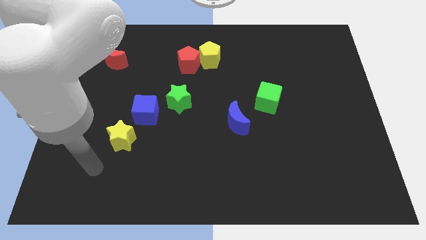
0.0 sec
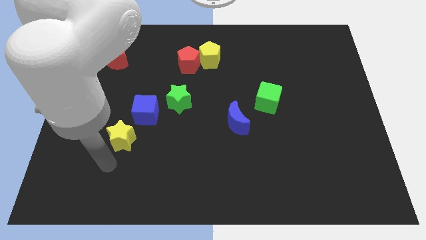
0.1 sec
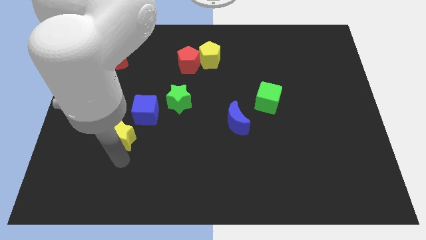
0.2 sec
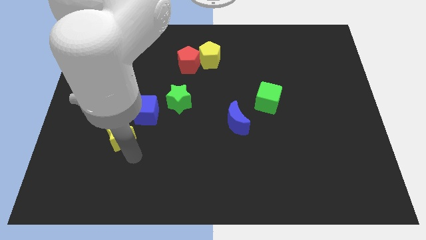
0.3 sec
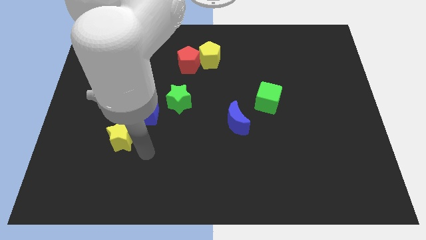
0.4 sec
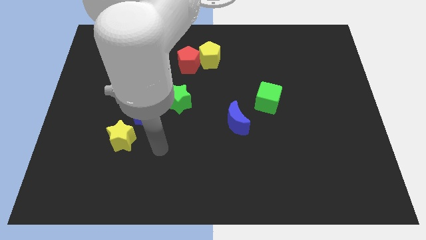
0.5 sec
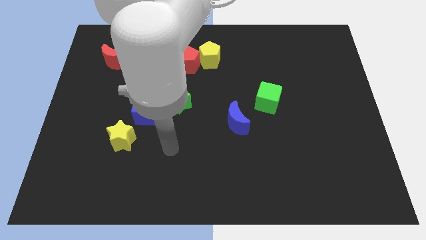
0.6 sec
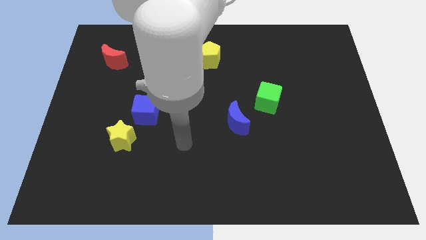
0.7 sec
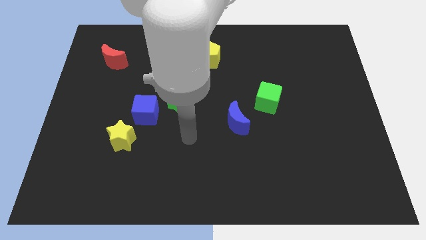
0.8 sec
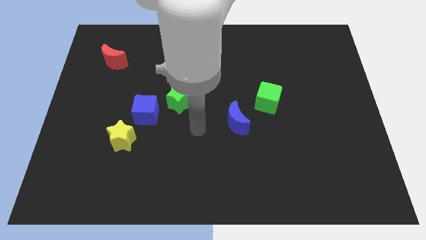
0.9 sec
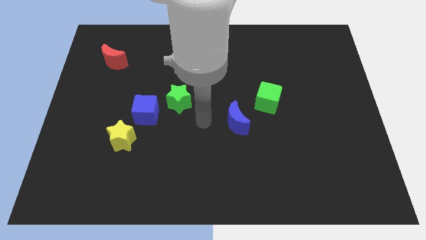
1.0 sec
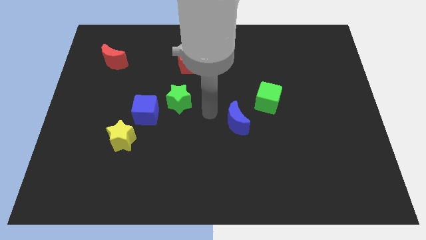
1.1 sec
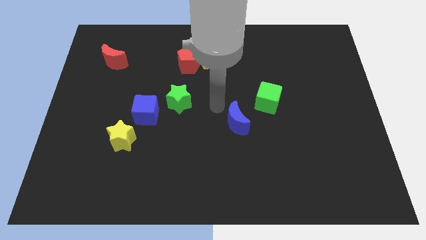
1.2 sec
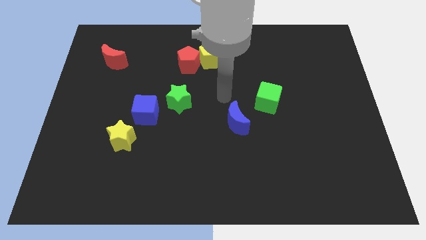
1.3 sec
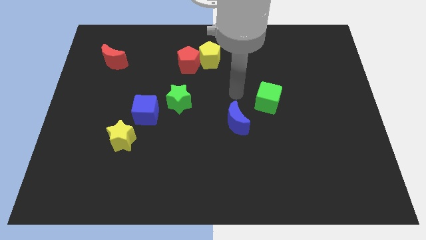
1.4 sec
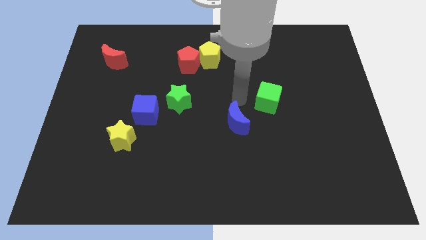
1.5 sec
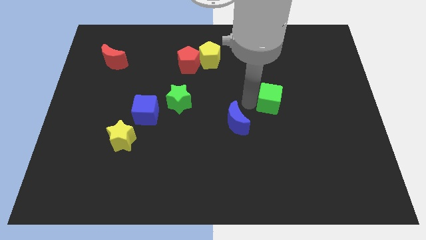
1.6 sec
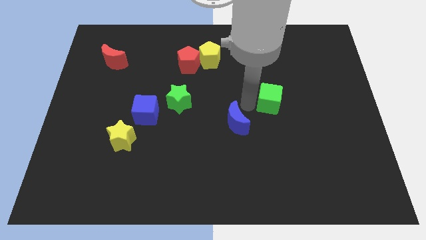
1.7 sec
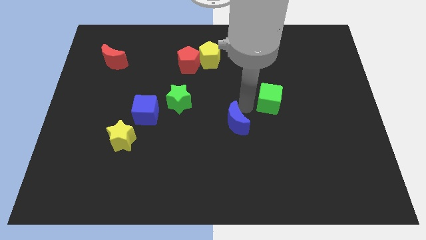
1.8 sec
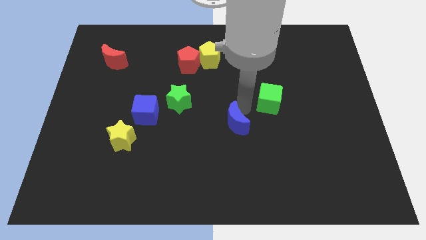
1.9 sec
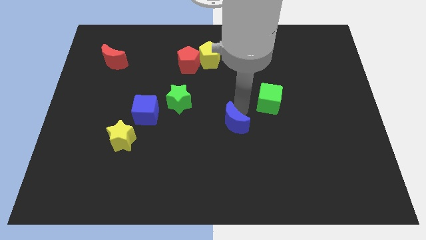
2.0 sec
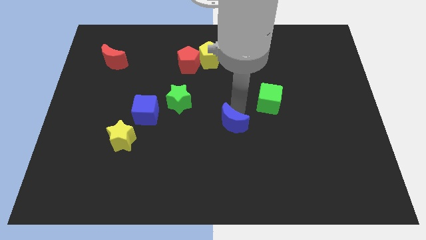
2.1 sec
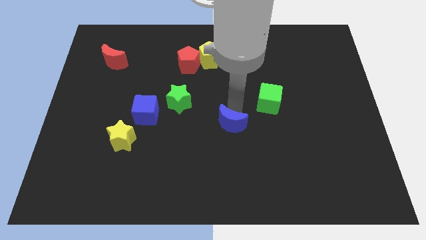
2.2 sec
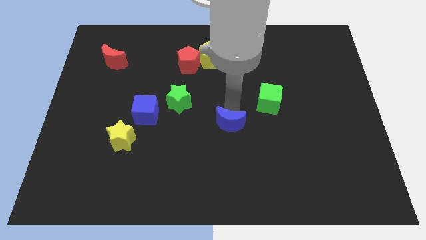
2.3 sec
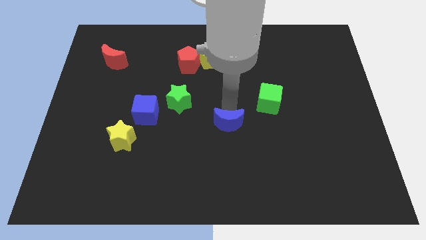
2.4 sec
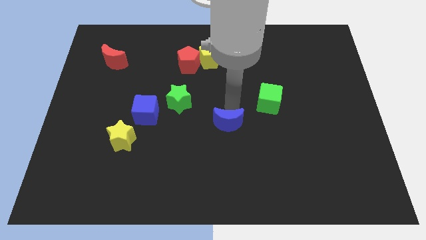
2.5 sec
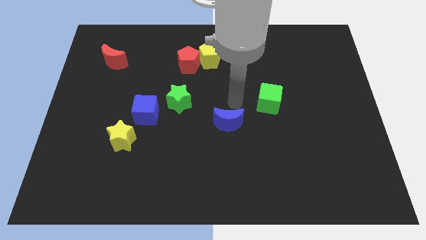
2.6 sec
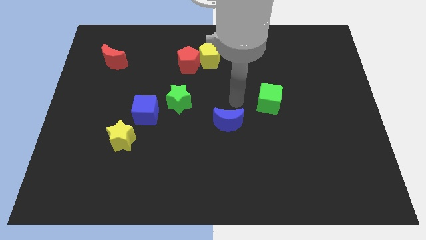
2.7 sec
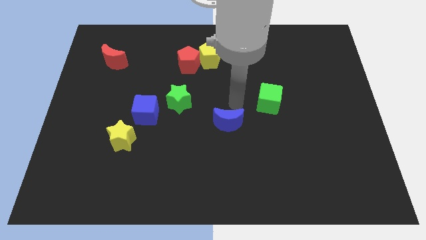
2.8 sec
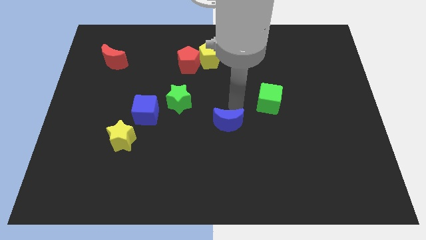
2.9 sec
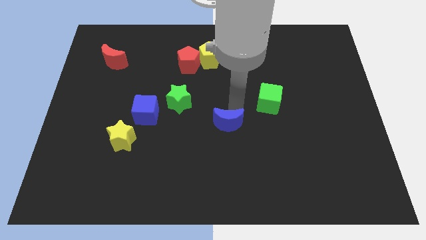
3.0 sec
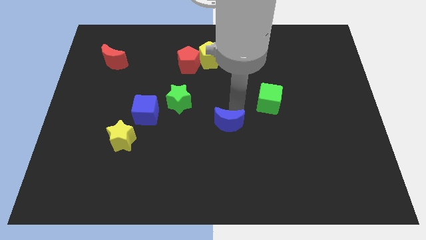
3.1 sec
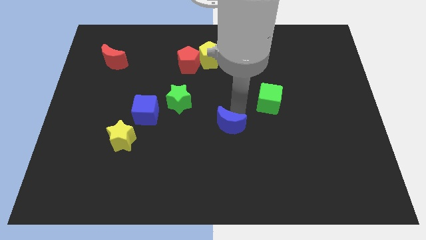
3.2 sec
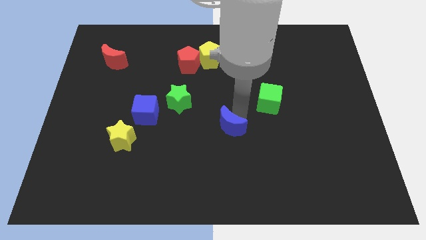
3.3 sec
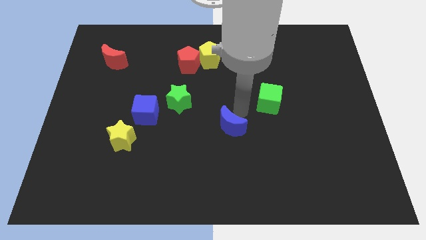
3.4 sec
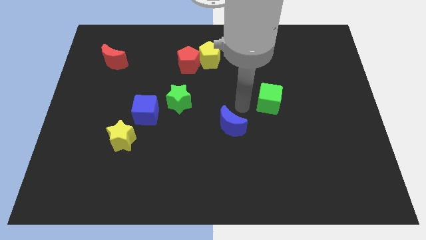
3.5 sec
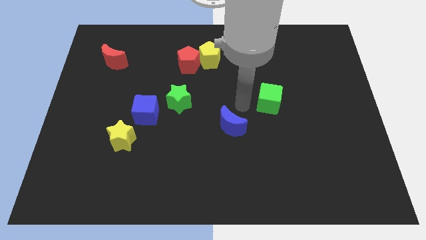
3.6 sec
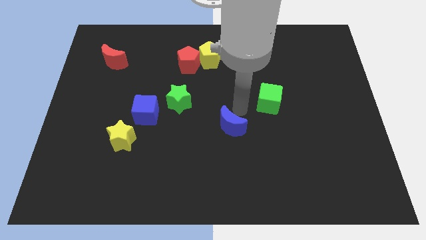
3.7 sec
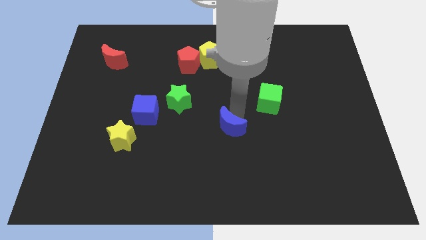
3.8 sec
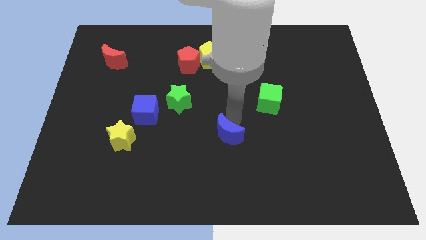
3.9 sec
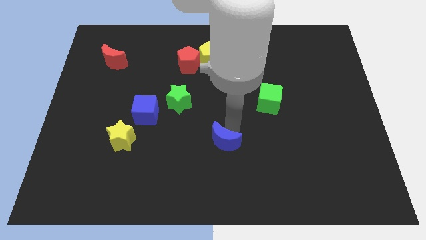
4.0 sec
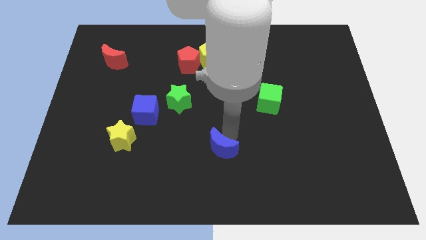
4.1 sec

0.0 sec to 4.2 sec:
move the blue moon a bit down and left diagonally

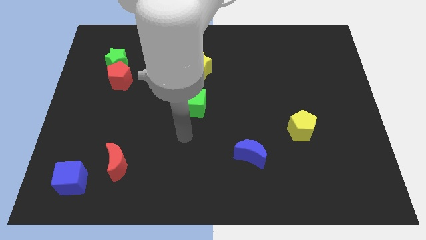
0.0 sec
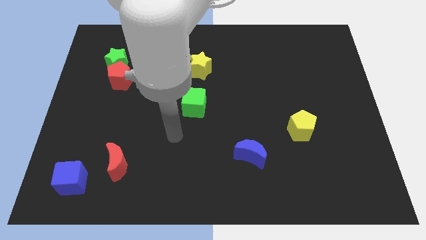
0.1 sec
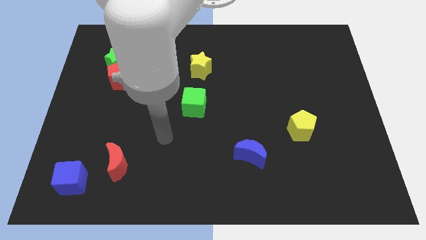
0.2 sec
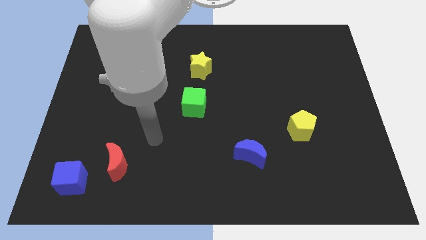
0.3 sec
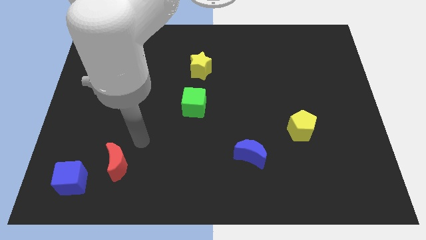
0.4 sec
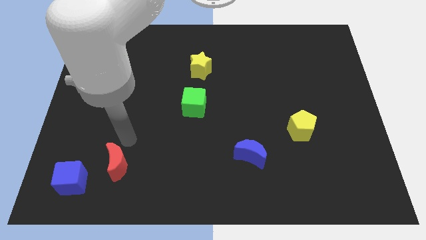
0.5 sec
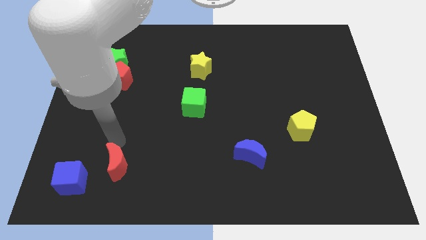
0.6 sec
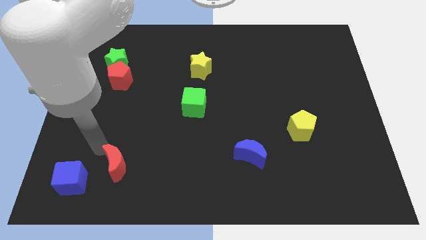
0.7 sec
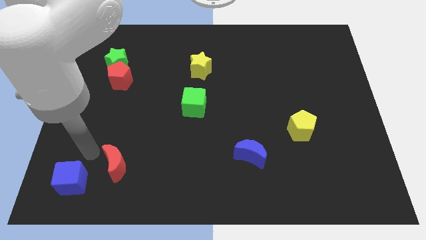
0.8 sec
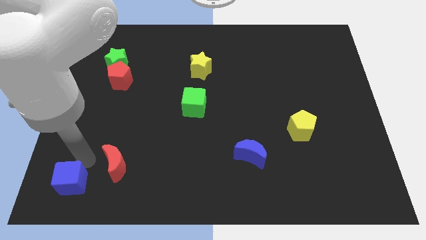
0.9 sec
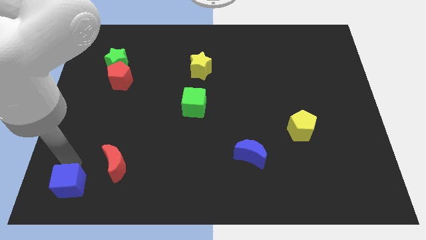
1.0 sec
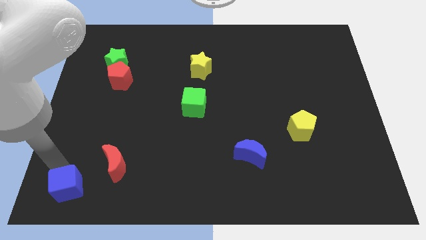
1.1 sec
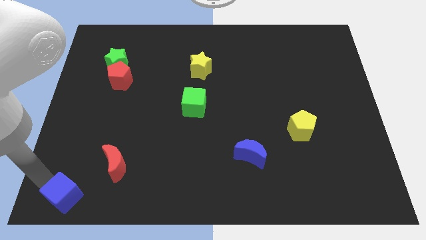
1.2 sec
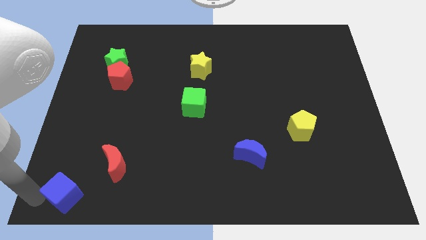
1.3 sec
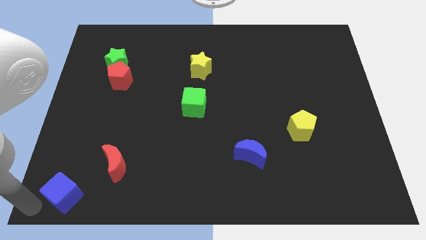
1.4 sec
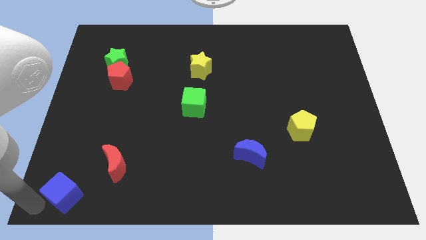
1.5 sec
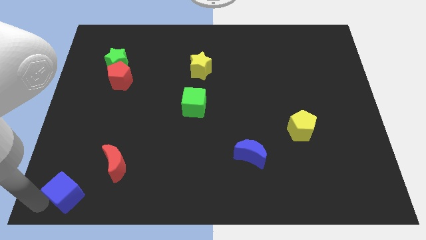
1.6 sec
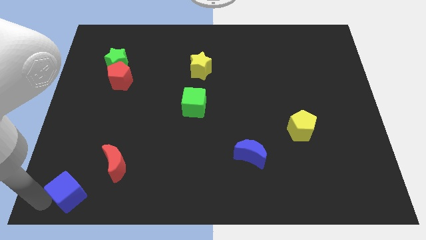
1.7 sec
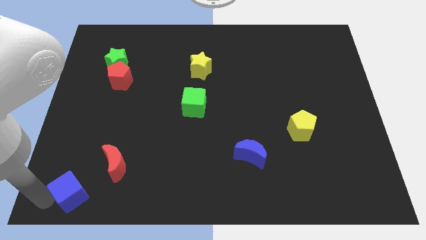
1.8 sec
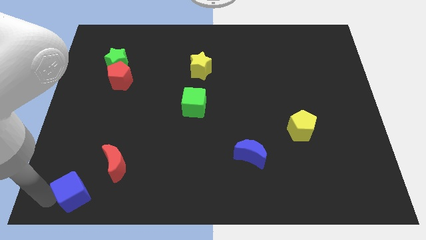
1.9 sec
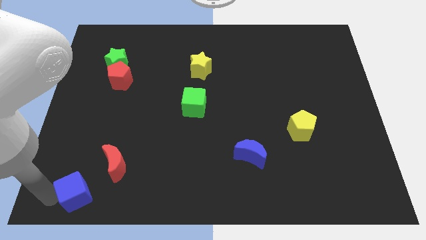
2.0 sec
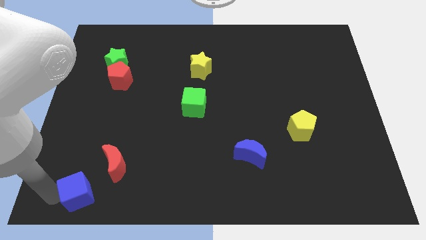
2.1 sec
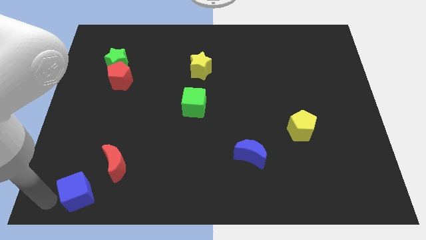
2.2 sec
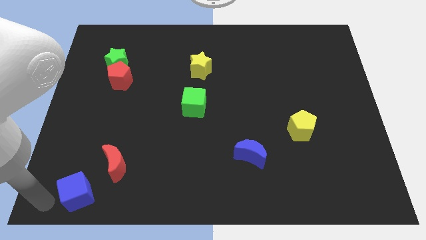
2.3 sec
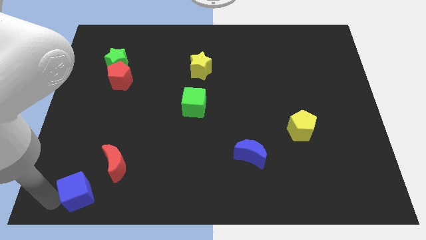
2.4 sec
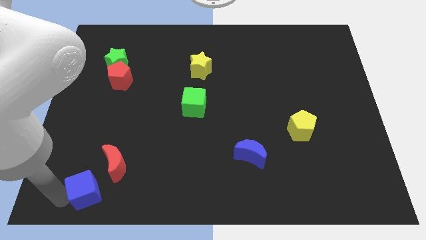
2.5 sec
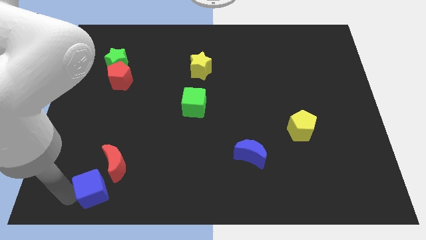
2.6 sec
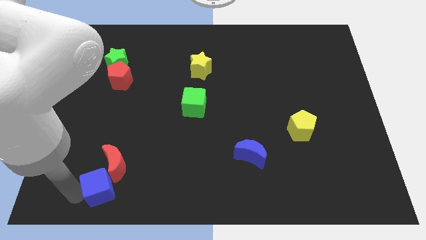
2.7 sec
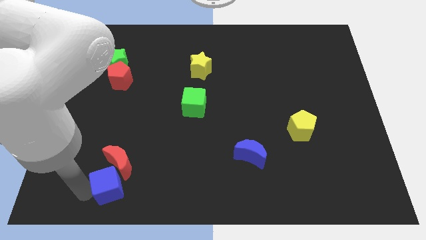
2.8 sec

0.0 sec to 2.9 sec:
move the blue cube a little bit right

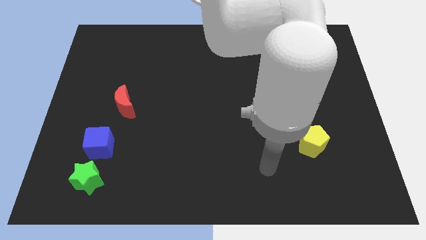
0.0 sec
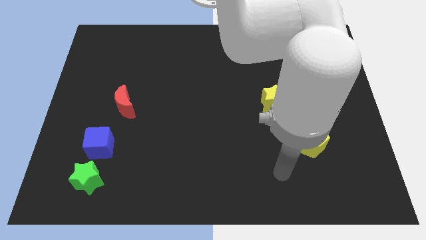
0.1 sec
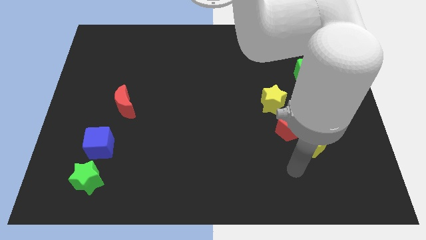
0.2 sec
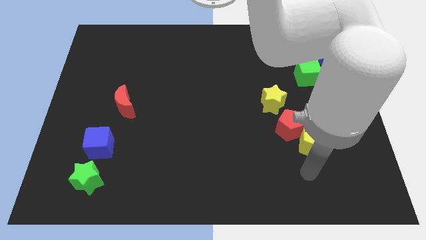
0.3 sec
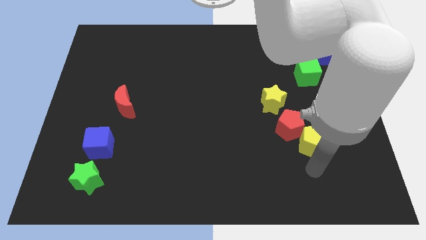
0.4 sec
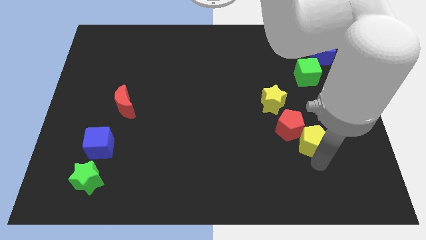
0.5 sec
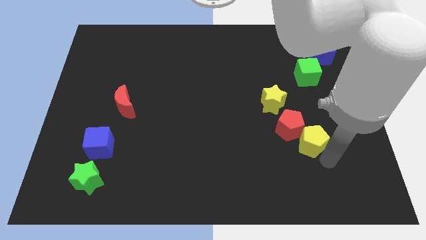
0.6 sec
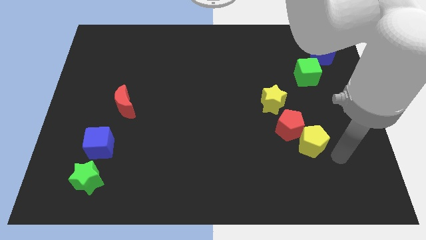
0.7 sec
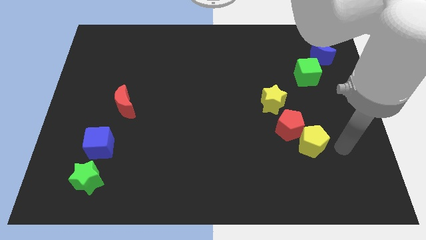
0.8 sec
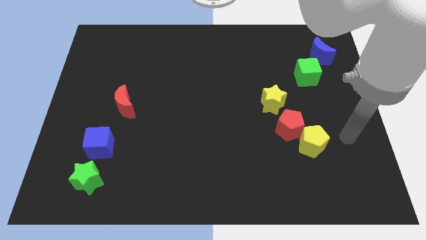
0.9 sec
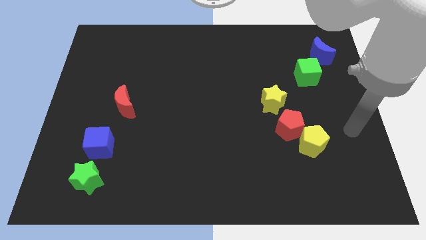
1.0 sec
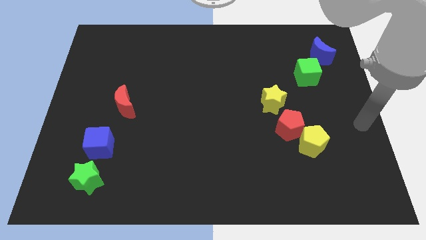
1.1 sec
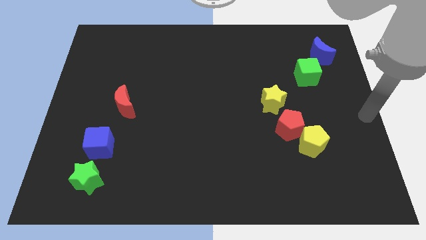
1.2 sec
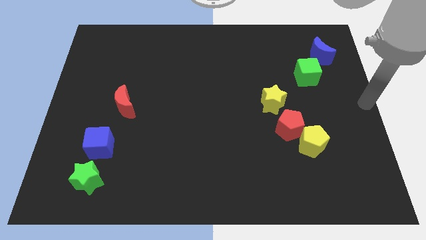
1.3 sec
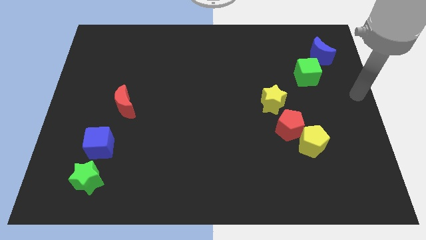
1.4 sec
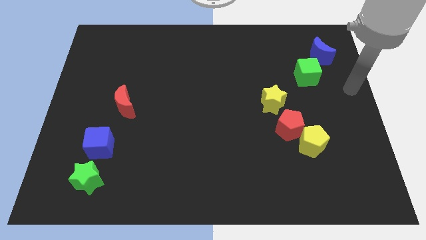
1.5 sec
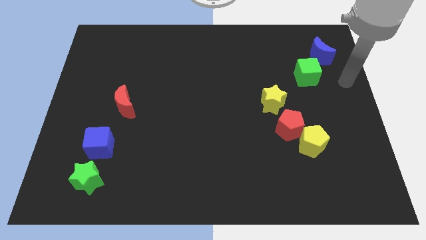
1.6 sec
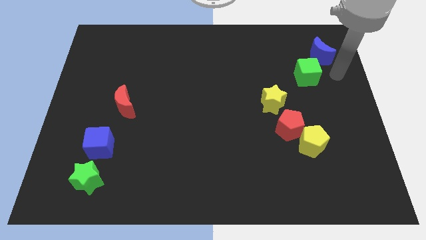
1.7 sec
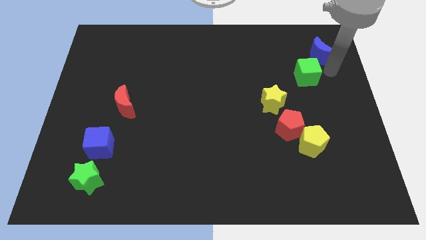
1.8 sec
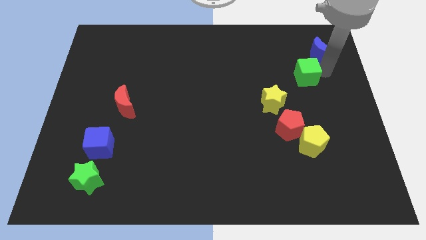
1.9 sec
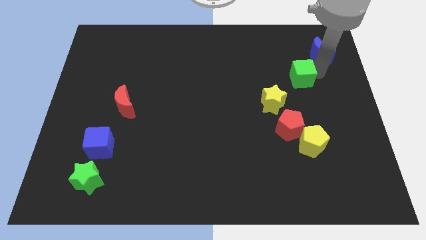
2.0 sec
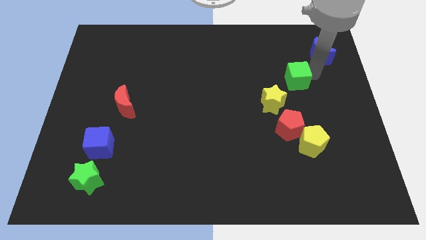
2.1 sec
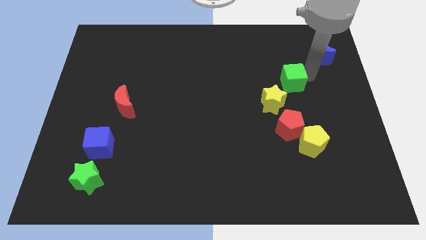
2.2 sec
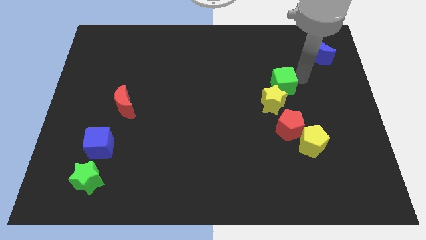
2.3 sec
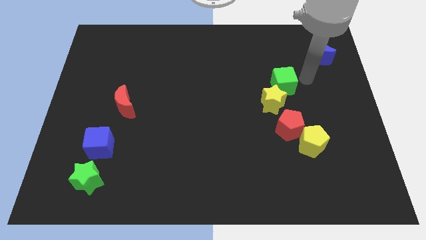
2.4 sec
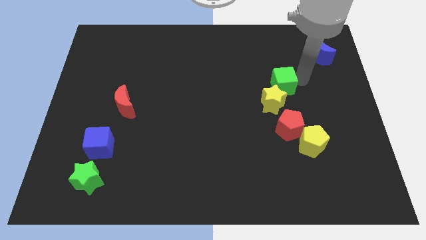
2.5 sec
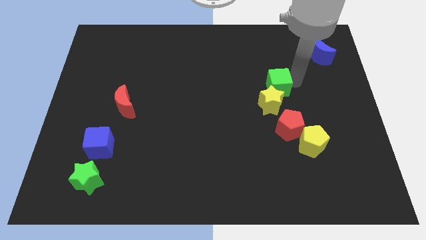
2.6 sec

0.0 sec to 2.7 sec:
slightly slide the green cube downwards and to the left
